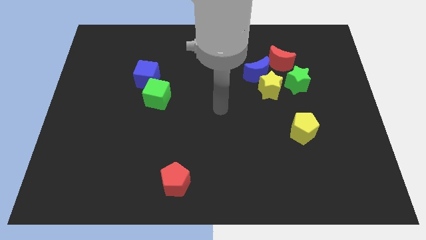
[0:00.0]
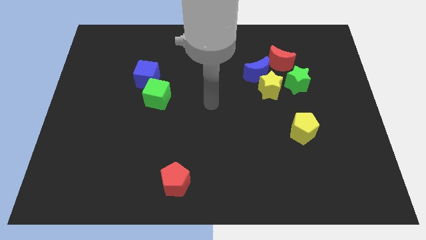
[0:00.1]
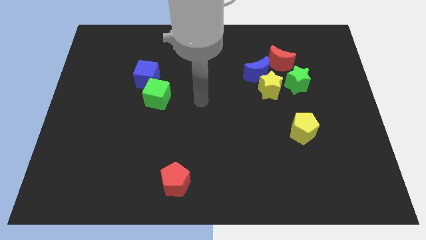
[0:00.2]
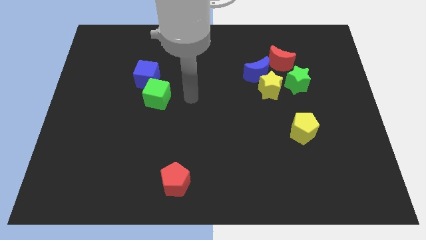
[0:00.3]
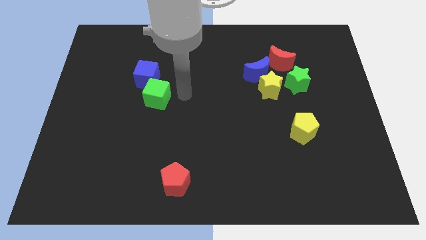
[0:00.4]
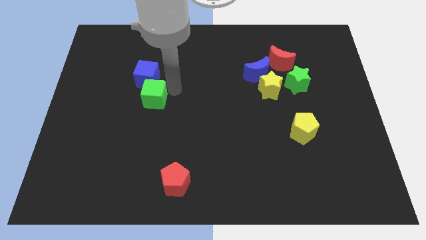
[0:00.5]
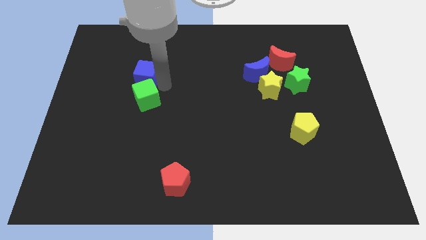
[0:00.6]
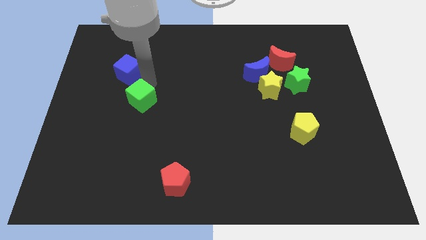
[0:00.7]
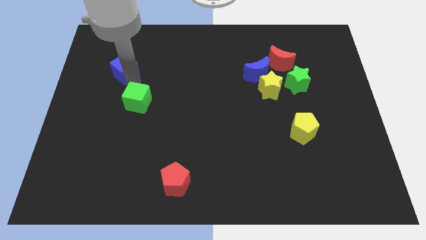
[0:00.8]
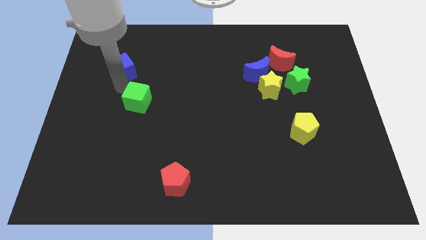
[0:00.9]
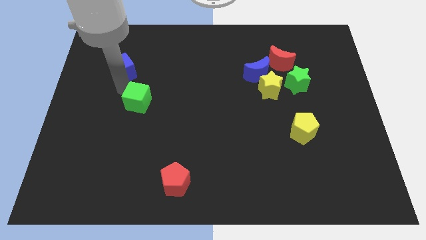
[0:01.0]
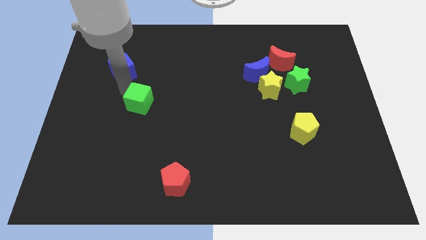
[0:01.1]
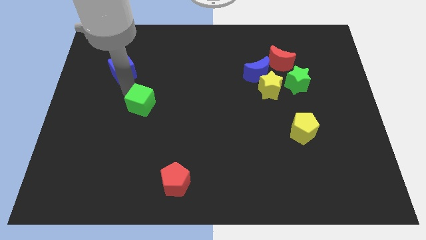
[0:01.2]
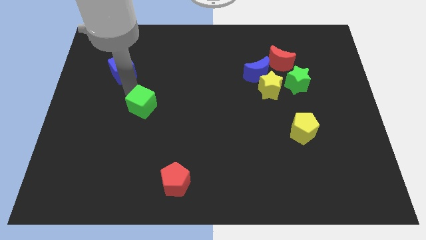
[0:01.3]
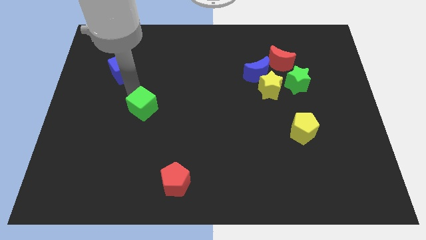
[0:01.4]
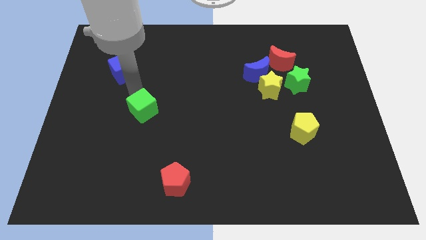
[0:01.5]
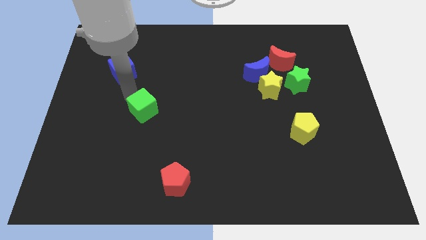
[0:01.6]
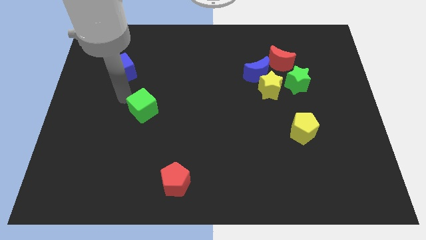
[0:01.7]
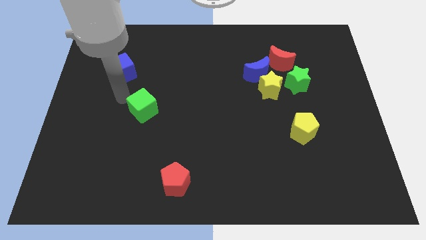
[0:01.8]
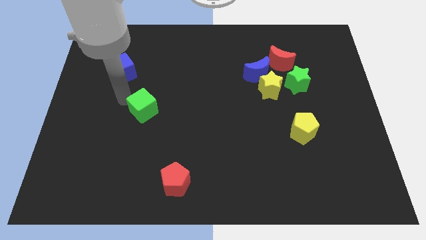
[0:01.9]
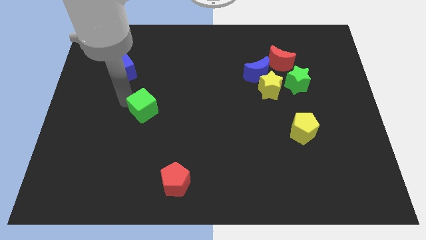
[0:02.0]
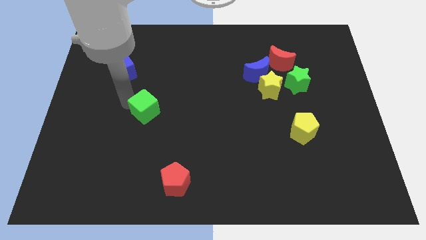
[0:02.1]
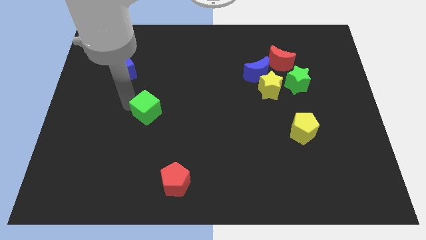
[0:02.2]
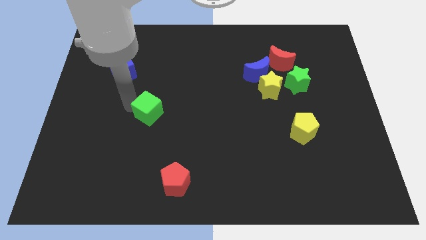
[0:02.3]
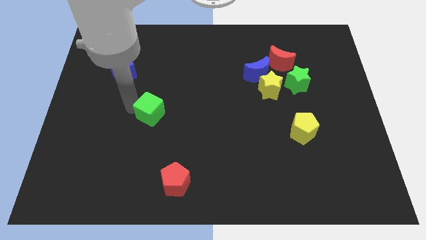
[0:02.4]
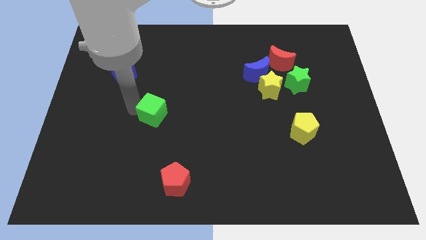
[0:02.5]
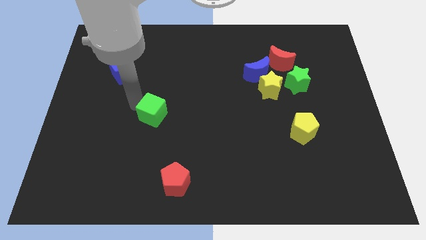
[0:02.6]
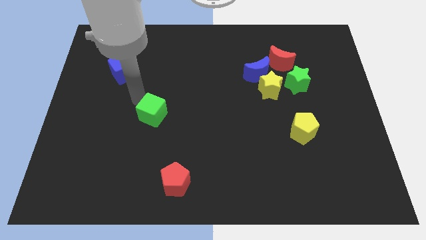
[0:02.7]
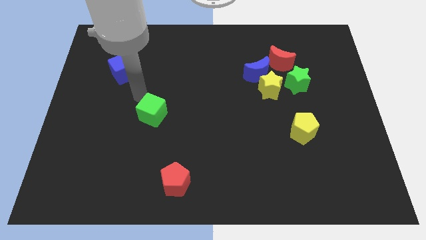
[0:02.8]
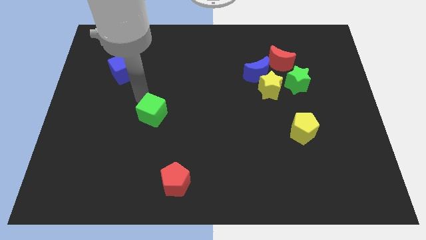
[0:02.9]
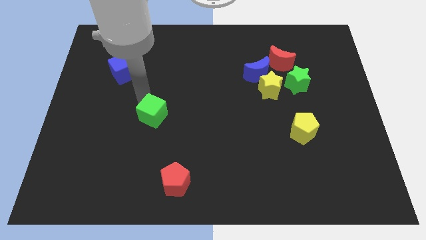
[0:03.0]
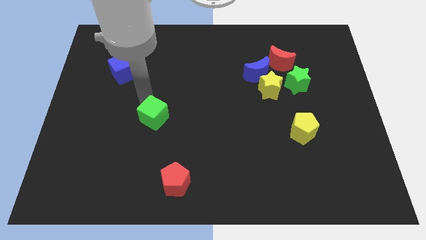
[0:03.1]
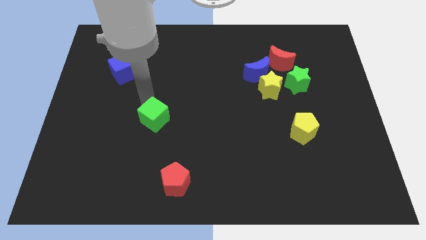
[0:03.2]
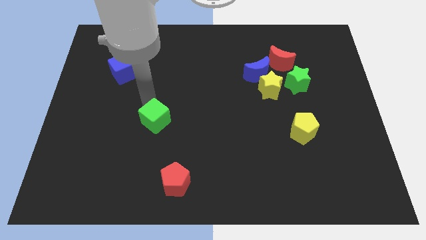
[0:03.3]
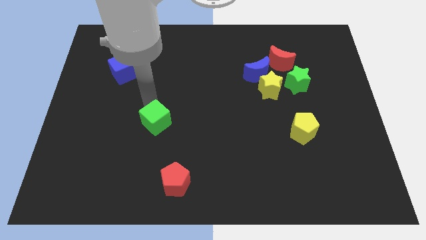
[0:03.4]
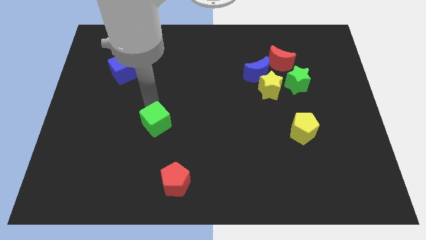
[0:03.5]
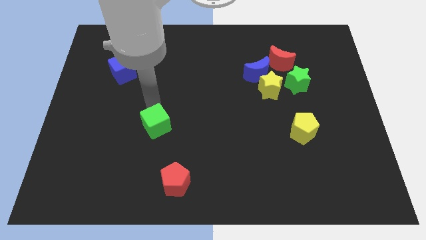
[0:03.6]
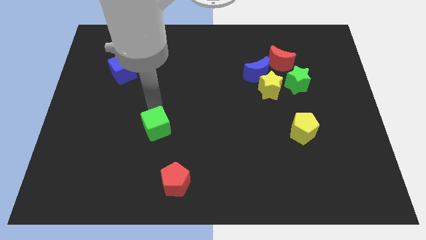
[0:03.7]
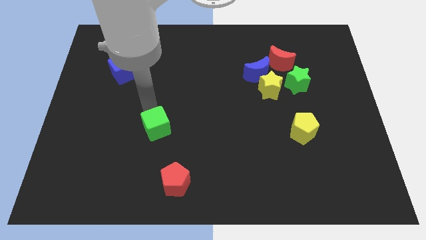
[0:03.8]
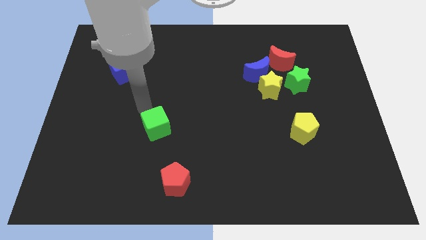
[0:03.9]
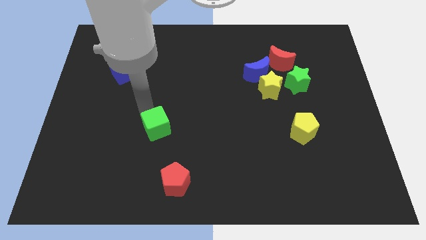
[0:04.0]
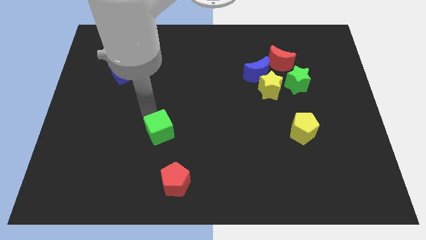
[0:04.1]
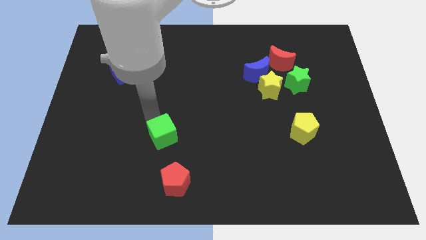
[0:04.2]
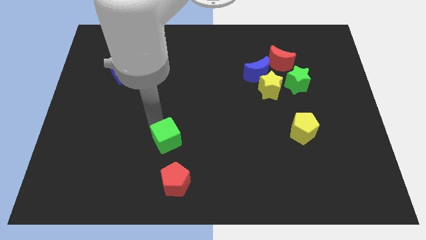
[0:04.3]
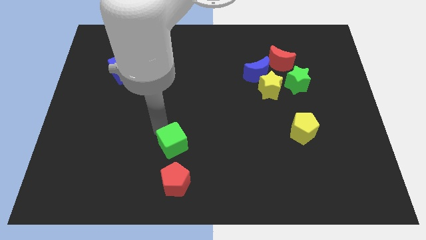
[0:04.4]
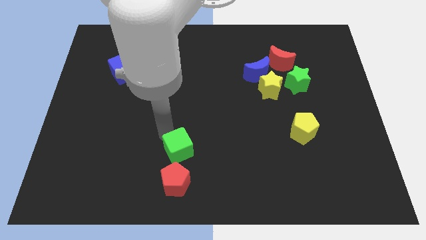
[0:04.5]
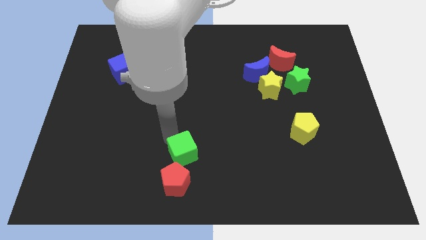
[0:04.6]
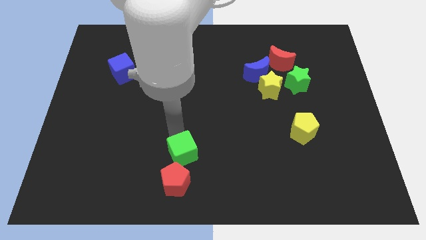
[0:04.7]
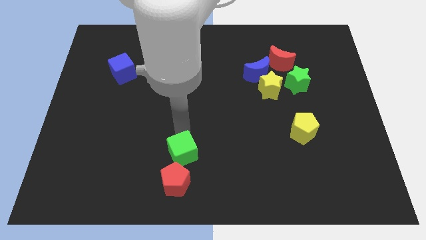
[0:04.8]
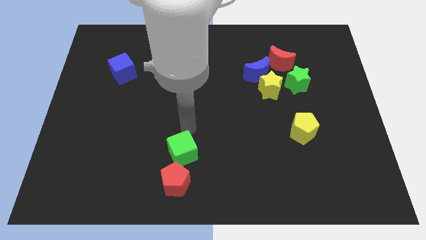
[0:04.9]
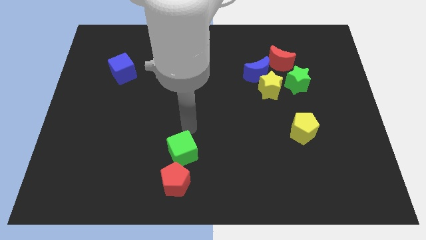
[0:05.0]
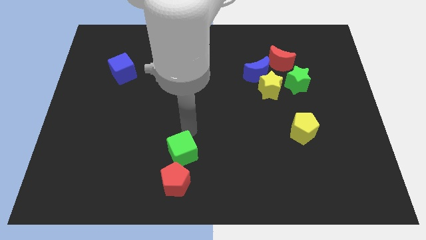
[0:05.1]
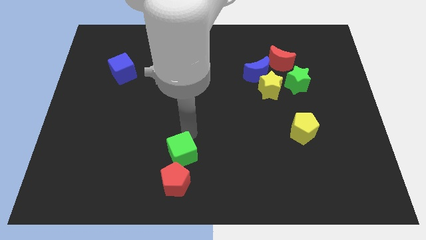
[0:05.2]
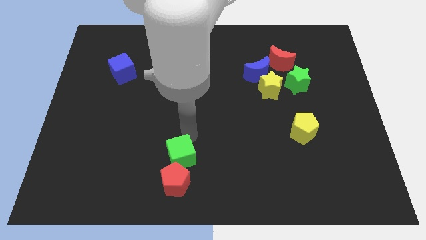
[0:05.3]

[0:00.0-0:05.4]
put the green cube towards the red pentagon

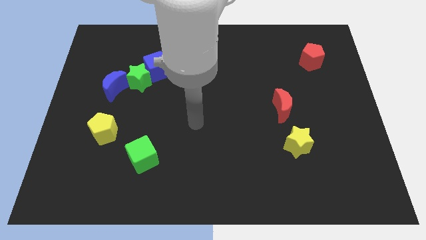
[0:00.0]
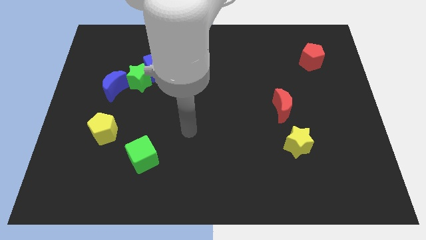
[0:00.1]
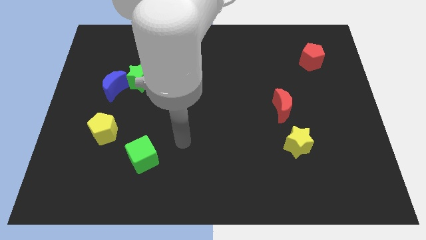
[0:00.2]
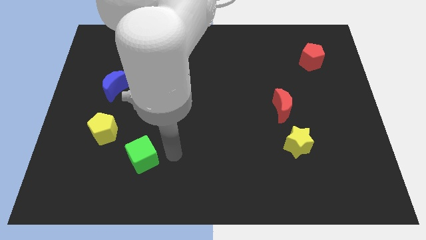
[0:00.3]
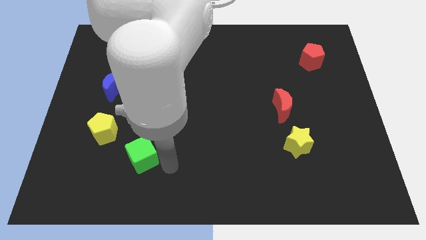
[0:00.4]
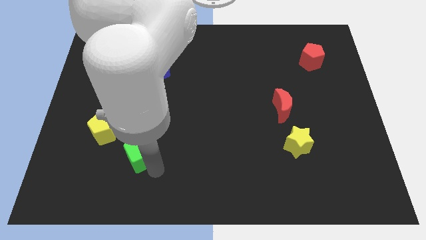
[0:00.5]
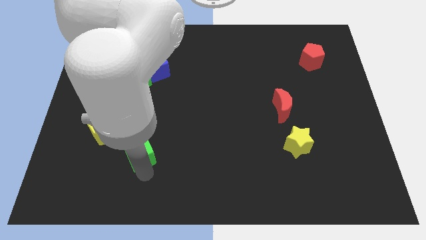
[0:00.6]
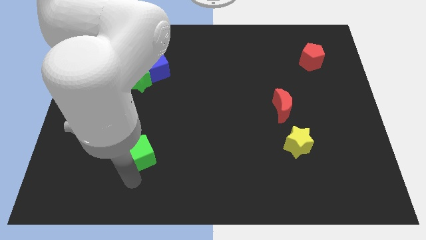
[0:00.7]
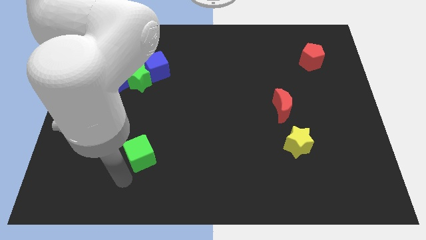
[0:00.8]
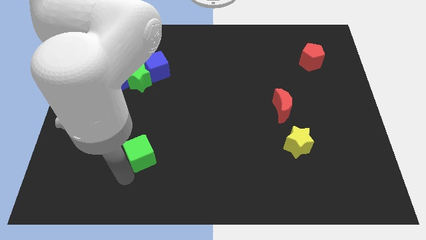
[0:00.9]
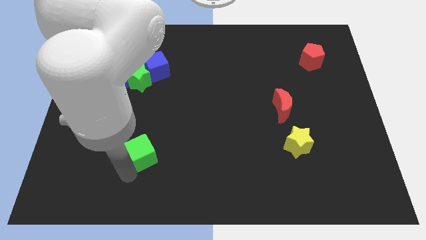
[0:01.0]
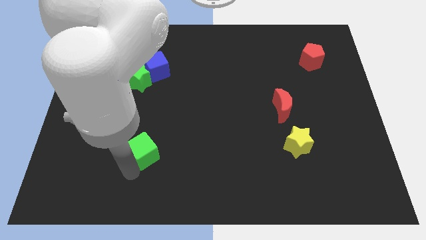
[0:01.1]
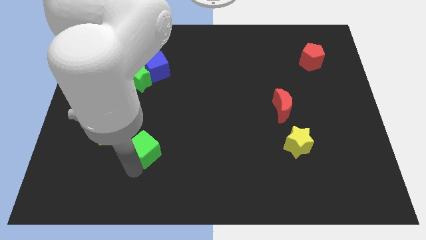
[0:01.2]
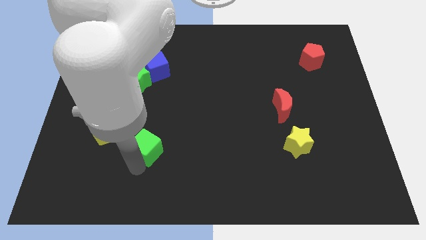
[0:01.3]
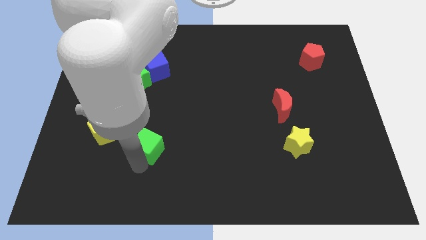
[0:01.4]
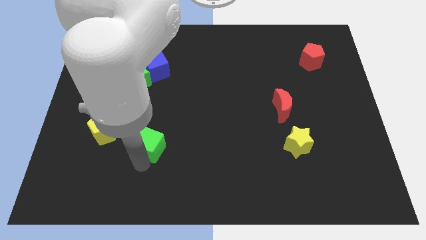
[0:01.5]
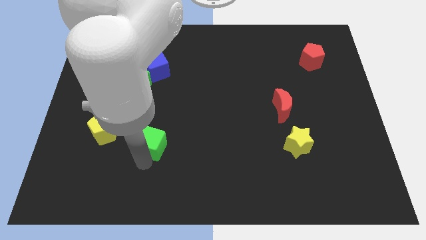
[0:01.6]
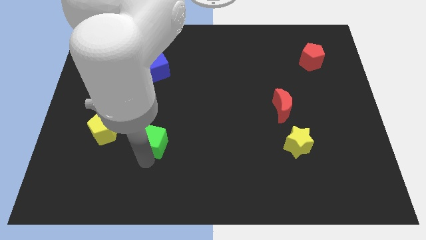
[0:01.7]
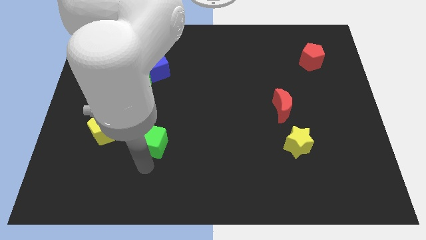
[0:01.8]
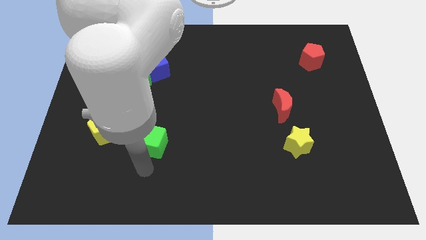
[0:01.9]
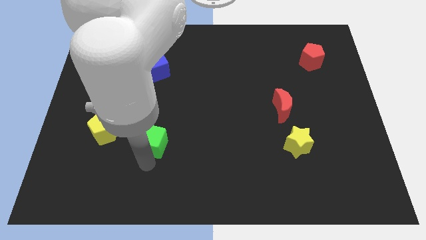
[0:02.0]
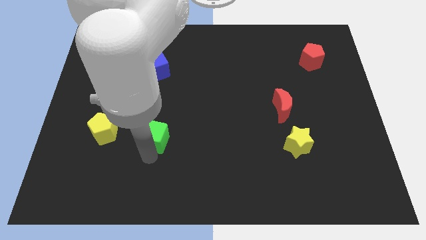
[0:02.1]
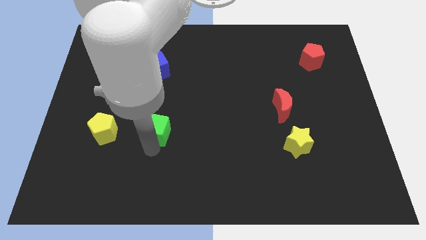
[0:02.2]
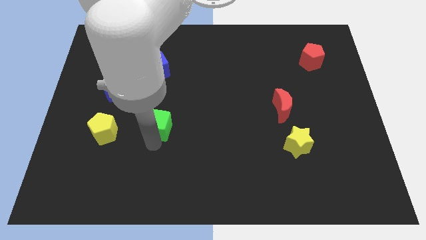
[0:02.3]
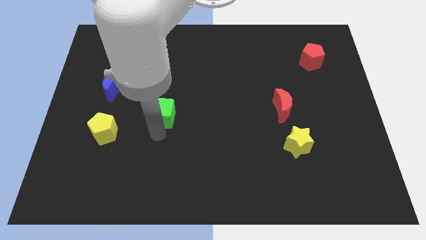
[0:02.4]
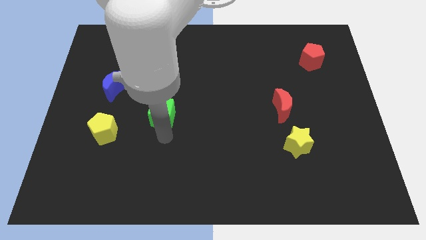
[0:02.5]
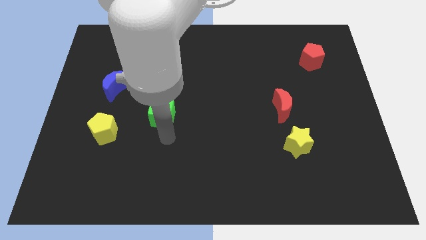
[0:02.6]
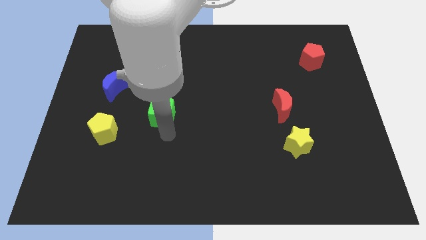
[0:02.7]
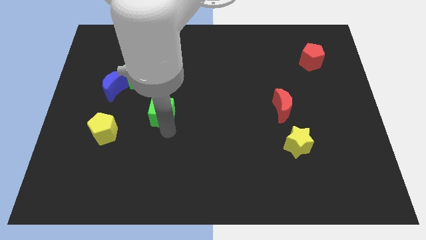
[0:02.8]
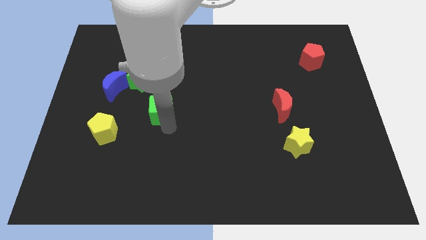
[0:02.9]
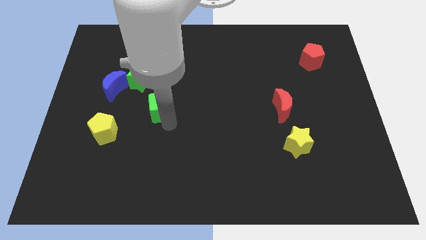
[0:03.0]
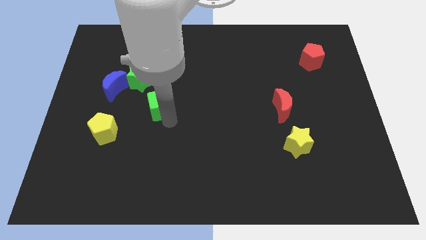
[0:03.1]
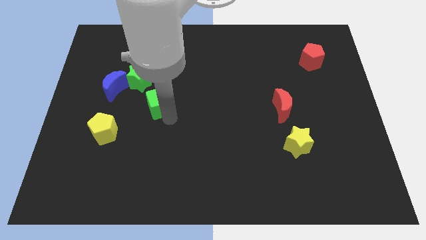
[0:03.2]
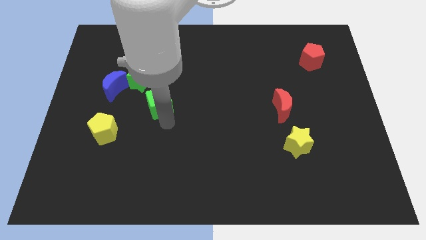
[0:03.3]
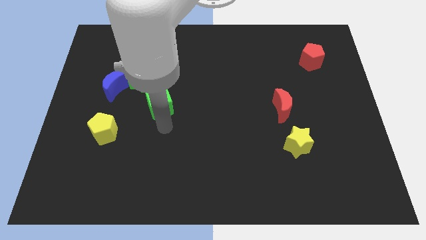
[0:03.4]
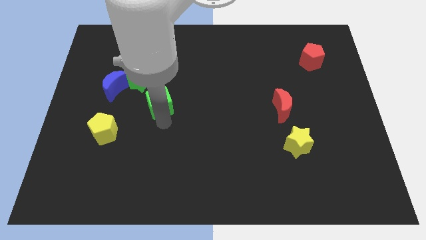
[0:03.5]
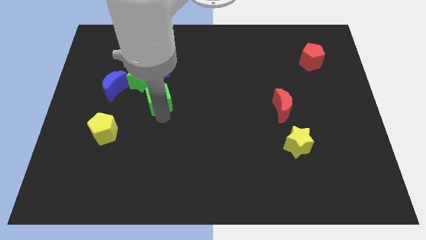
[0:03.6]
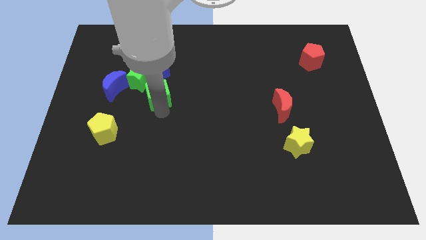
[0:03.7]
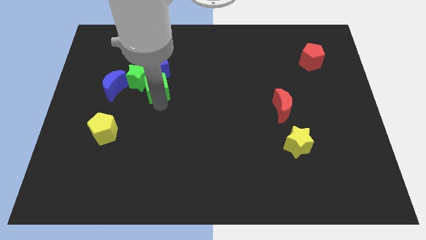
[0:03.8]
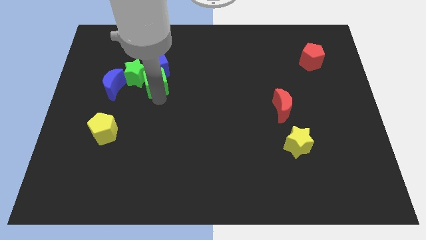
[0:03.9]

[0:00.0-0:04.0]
move the green cube next to the blue cube
